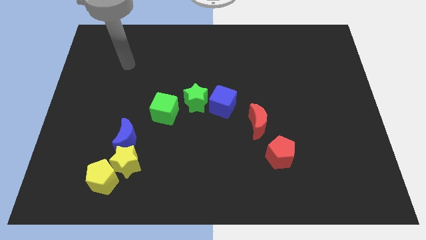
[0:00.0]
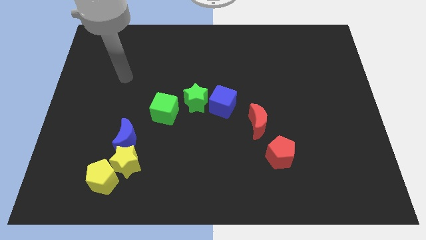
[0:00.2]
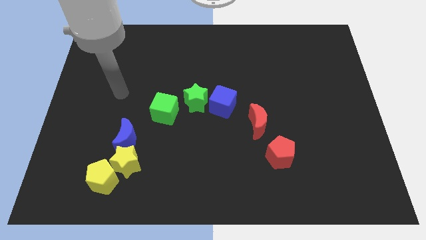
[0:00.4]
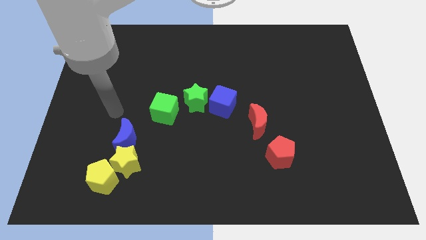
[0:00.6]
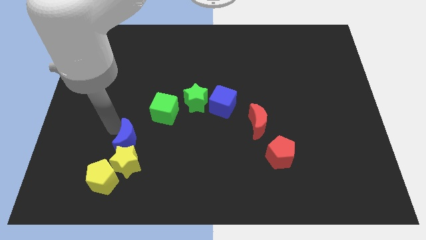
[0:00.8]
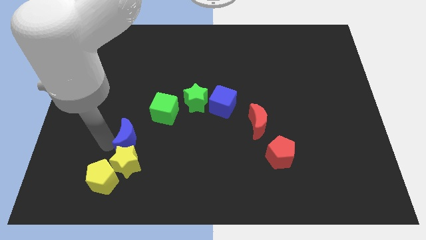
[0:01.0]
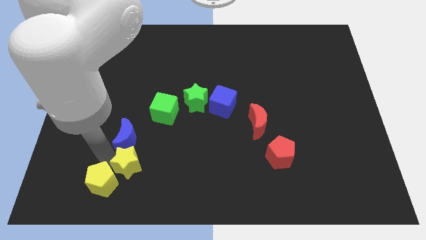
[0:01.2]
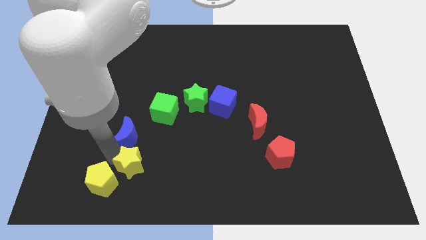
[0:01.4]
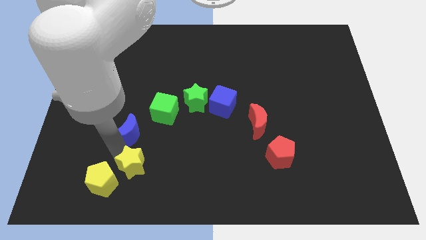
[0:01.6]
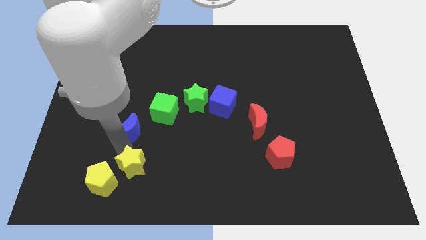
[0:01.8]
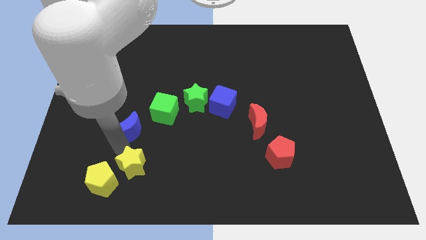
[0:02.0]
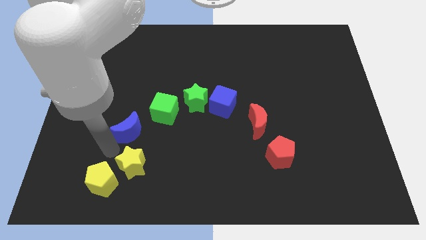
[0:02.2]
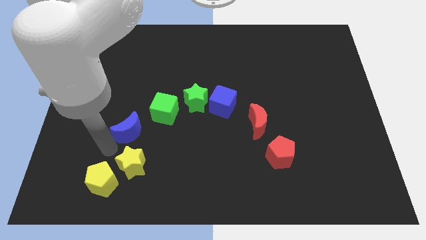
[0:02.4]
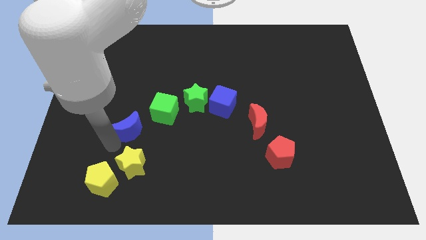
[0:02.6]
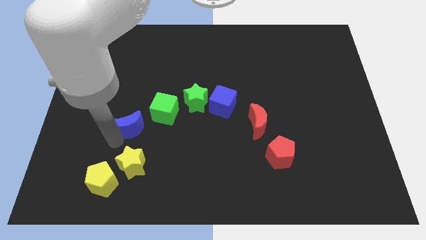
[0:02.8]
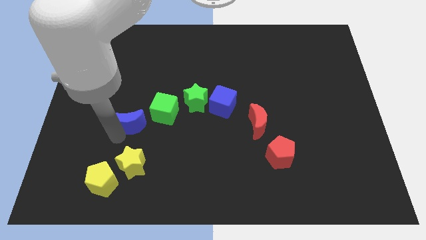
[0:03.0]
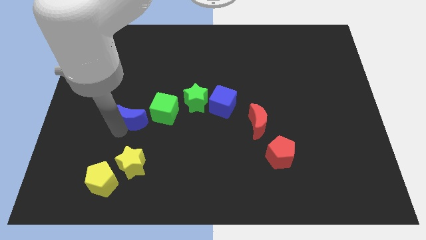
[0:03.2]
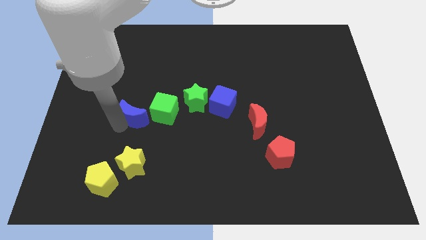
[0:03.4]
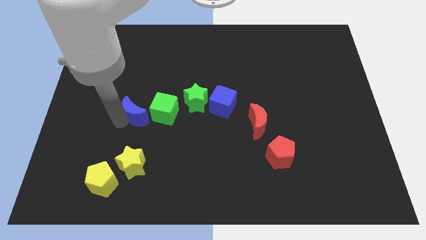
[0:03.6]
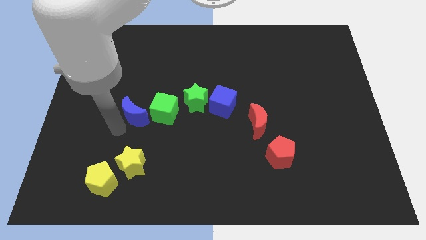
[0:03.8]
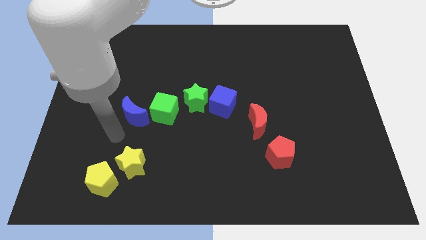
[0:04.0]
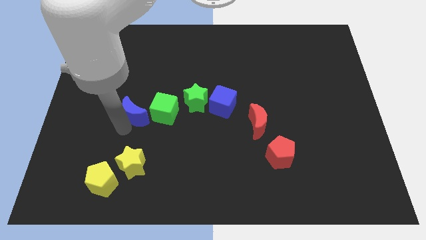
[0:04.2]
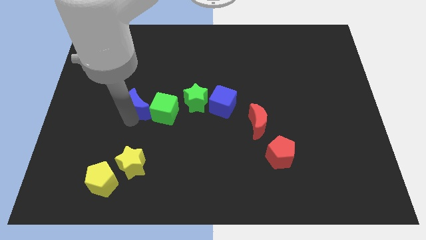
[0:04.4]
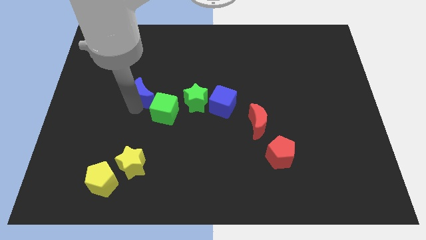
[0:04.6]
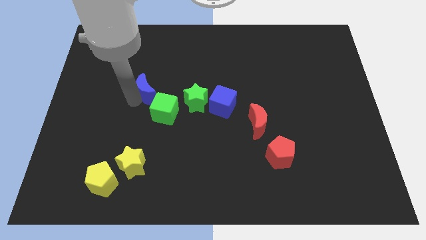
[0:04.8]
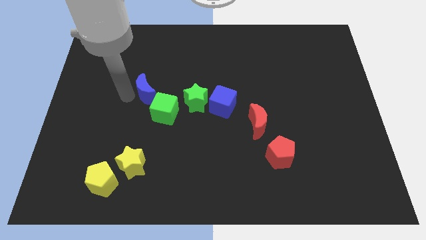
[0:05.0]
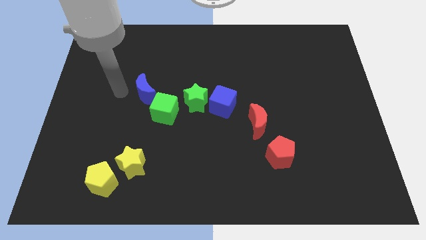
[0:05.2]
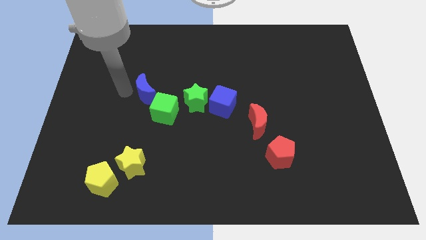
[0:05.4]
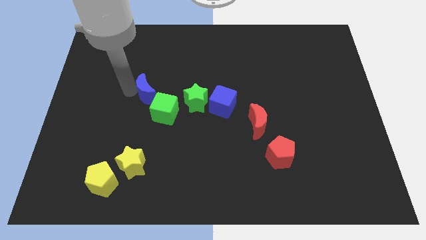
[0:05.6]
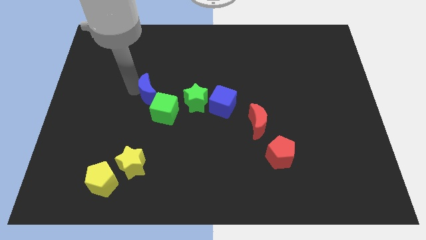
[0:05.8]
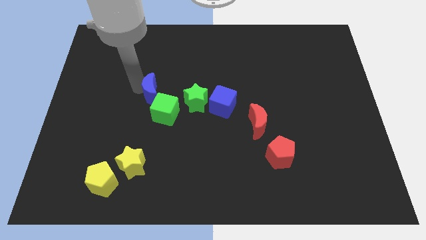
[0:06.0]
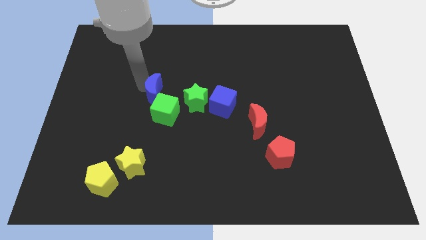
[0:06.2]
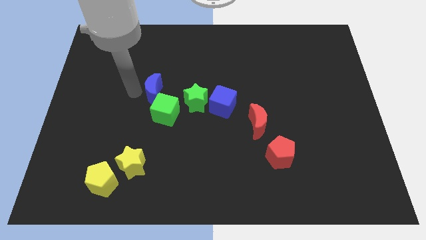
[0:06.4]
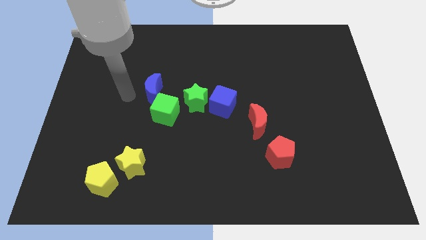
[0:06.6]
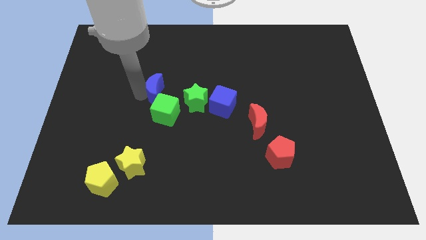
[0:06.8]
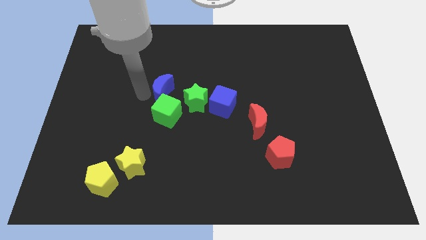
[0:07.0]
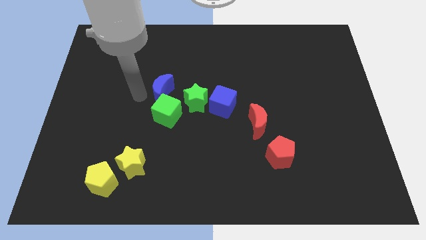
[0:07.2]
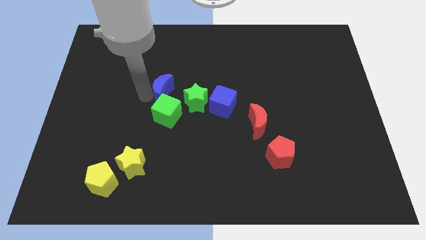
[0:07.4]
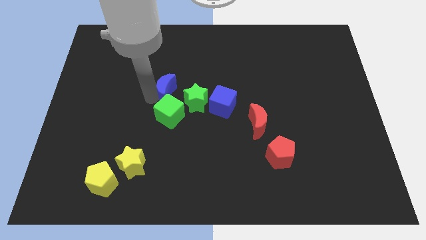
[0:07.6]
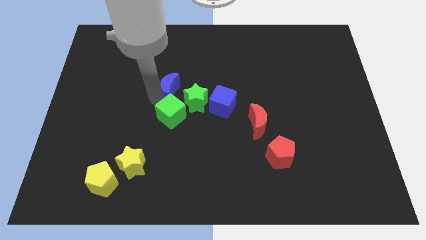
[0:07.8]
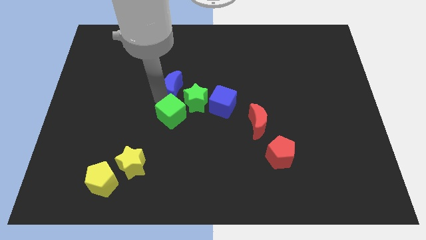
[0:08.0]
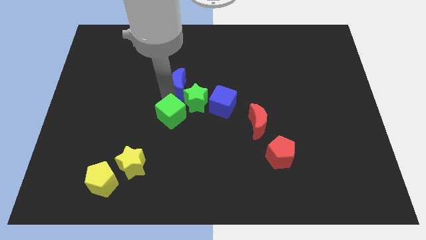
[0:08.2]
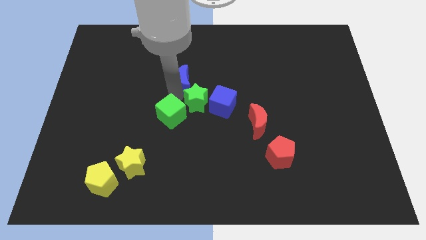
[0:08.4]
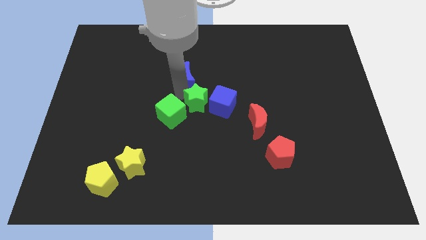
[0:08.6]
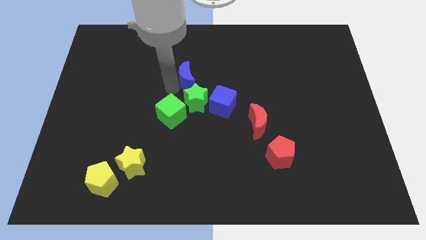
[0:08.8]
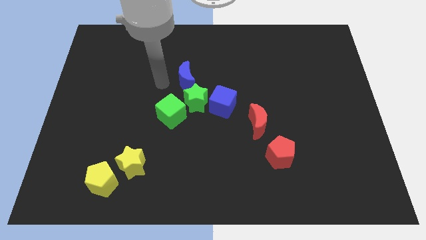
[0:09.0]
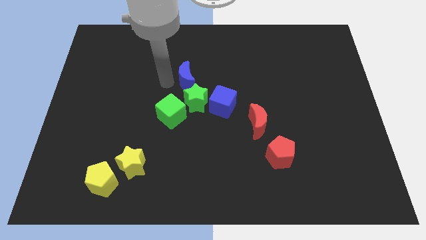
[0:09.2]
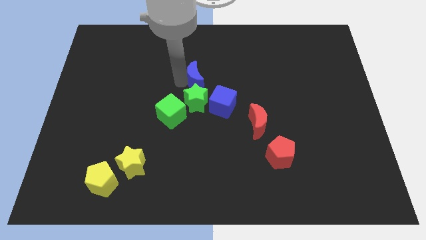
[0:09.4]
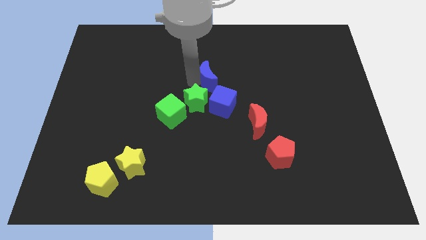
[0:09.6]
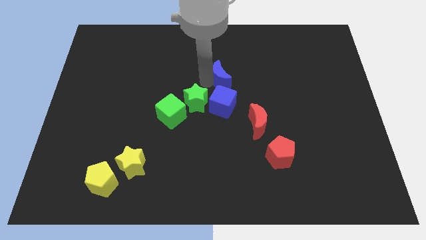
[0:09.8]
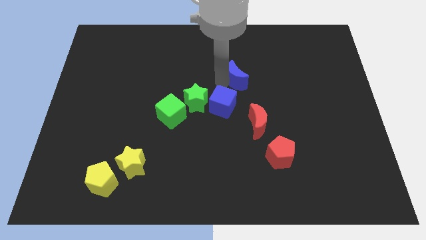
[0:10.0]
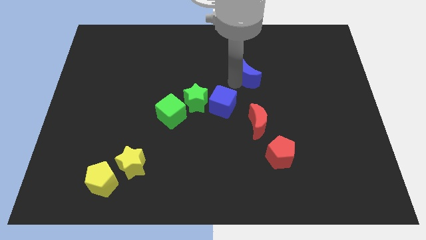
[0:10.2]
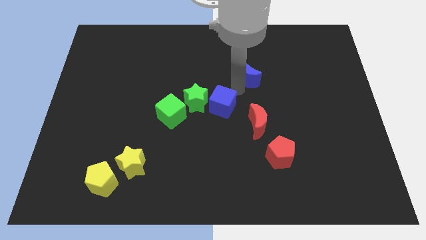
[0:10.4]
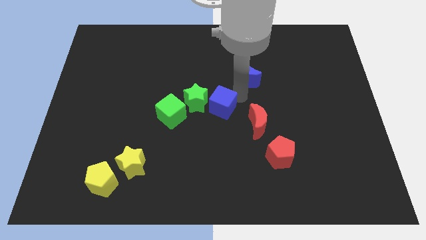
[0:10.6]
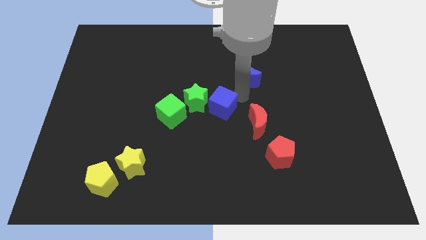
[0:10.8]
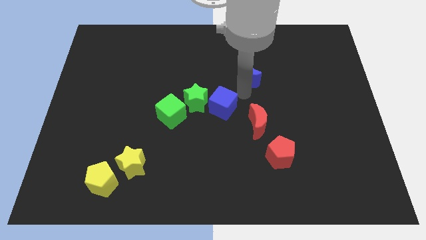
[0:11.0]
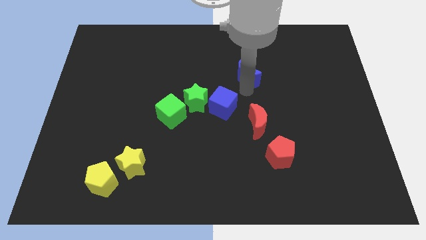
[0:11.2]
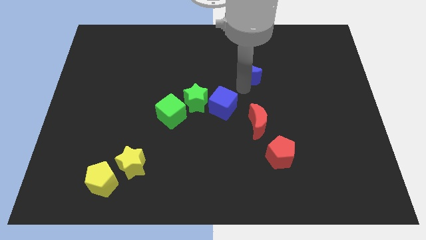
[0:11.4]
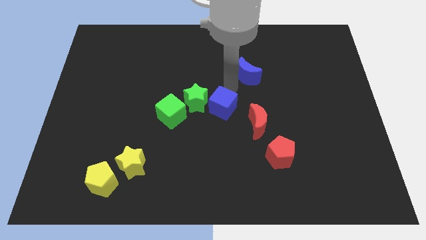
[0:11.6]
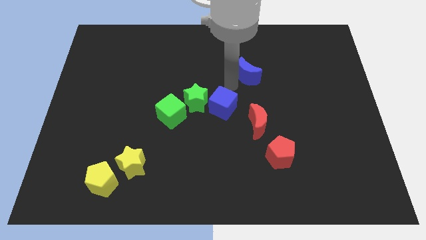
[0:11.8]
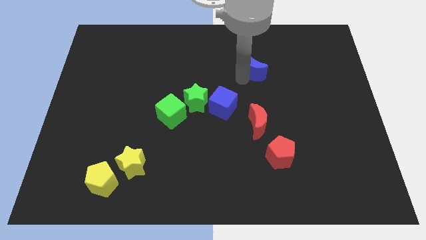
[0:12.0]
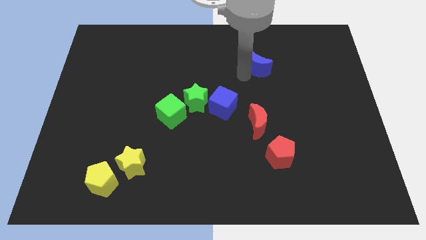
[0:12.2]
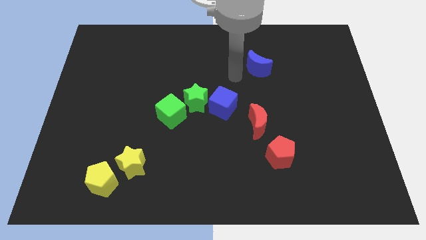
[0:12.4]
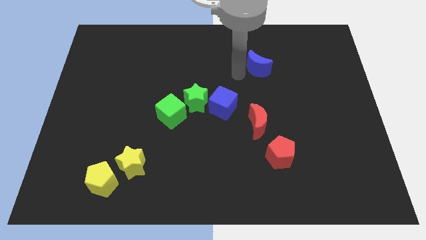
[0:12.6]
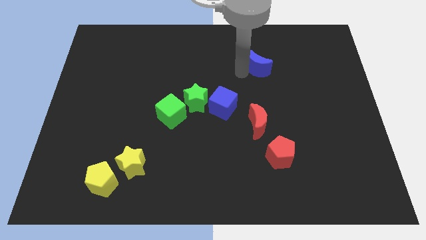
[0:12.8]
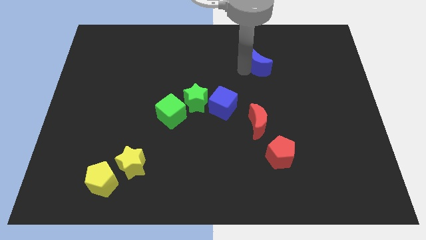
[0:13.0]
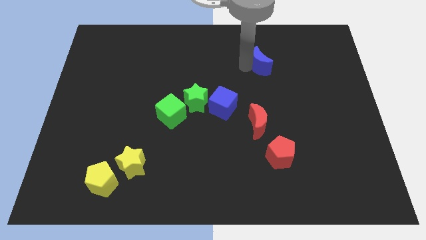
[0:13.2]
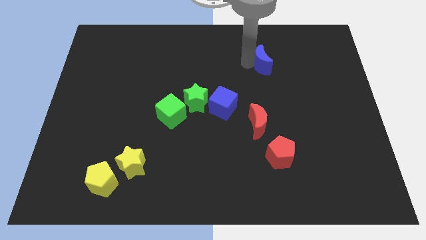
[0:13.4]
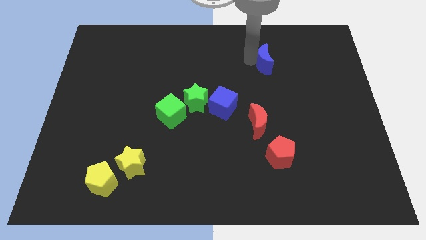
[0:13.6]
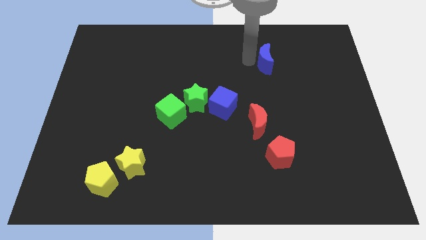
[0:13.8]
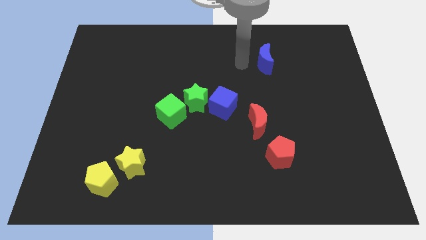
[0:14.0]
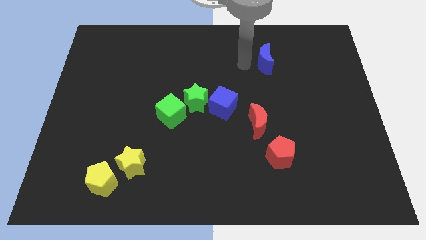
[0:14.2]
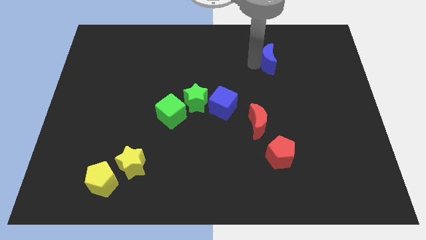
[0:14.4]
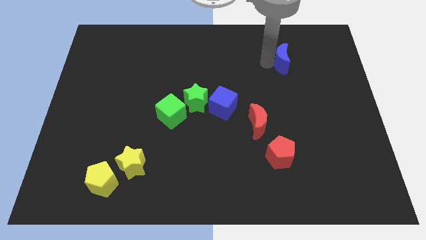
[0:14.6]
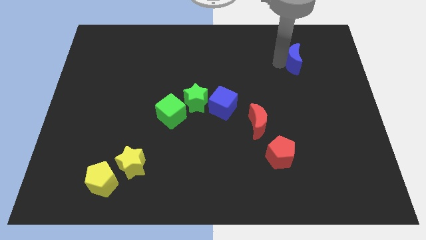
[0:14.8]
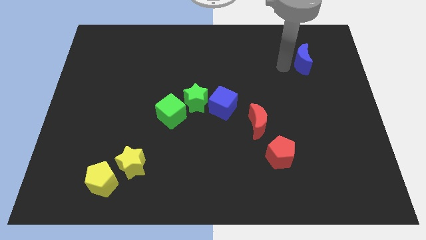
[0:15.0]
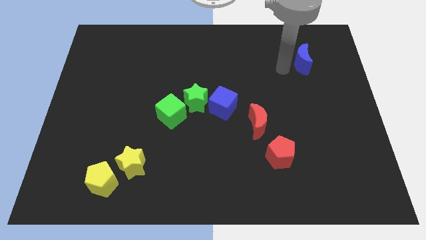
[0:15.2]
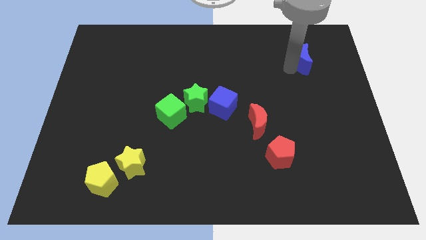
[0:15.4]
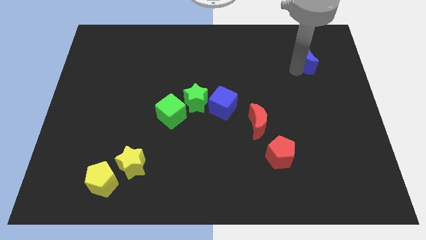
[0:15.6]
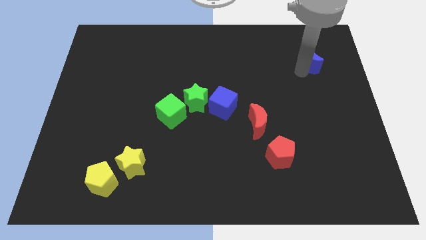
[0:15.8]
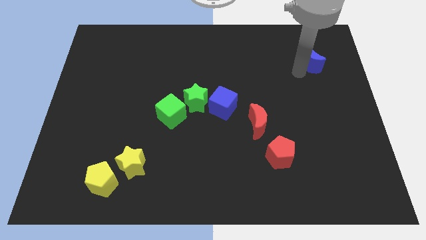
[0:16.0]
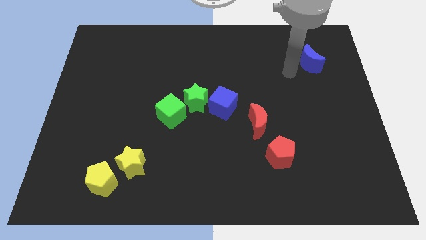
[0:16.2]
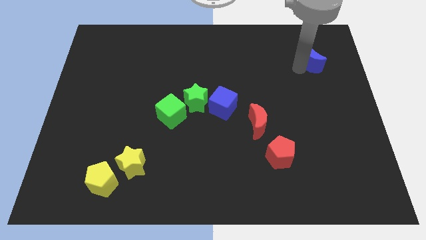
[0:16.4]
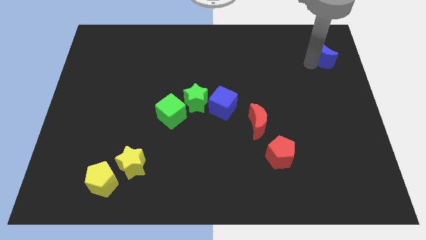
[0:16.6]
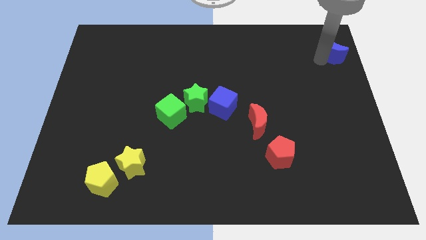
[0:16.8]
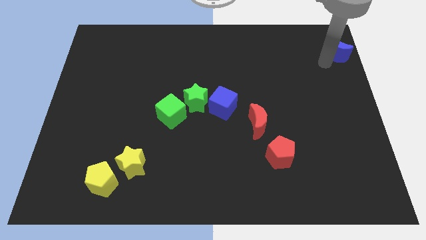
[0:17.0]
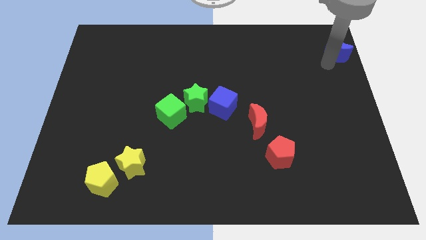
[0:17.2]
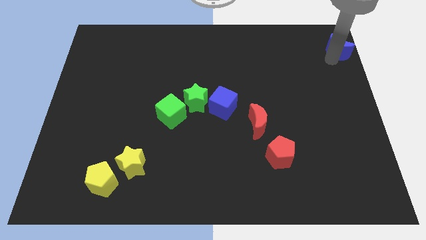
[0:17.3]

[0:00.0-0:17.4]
push the blue moon to the top right
